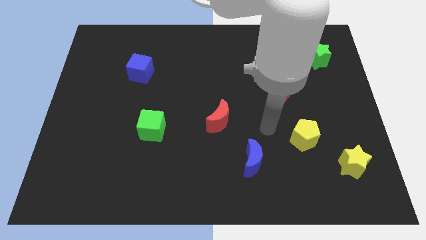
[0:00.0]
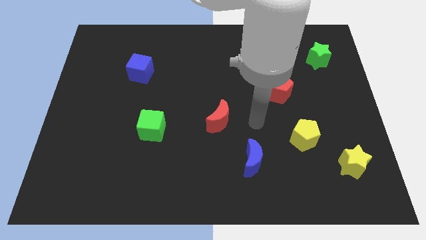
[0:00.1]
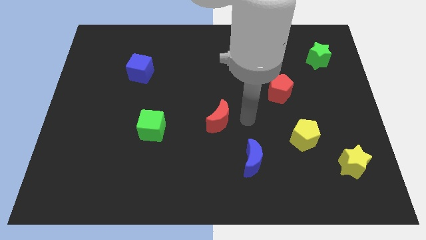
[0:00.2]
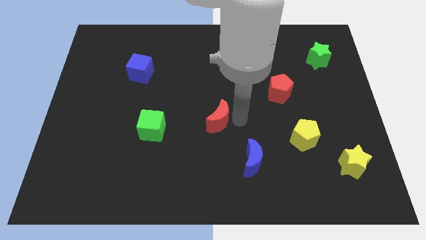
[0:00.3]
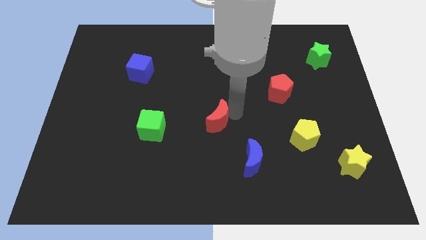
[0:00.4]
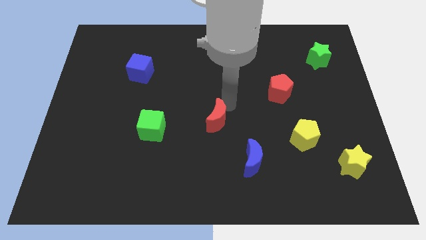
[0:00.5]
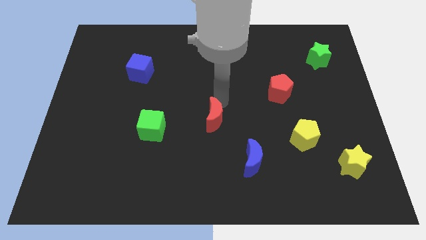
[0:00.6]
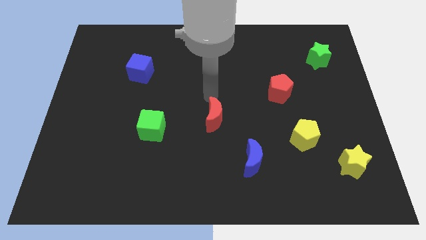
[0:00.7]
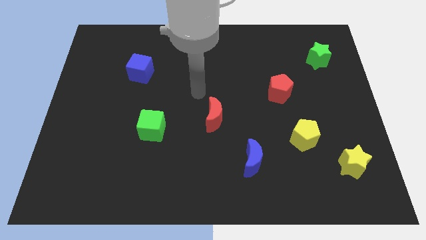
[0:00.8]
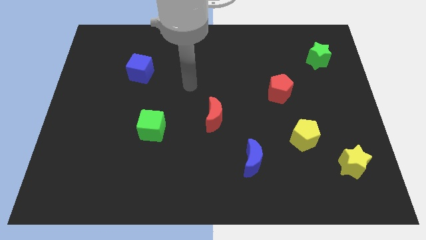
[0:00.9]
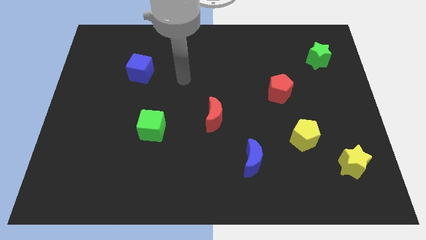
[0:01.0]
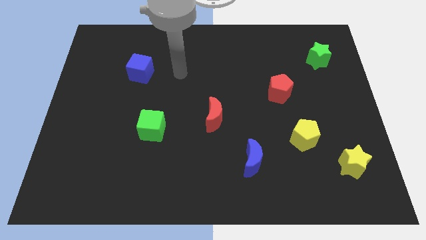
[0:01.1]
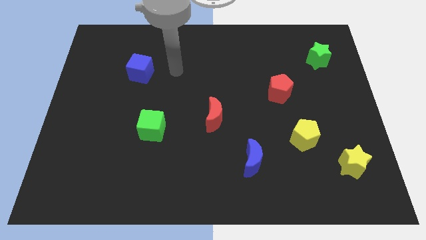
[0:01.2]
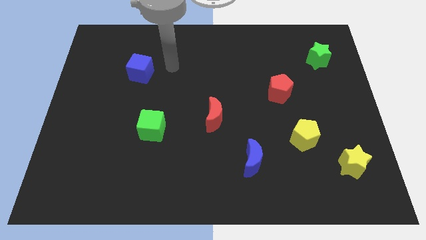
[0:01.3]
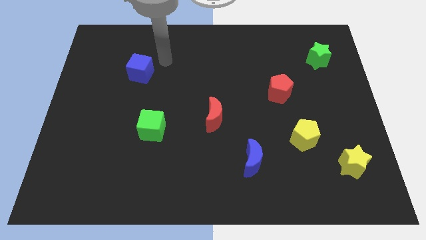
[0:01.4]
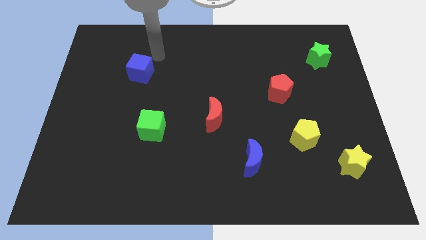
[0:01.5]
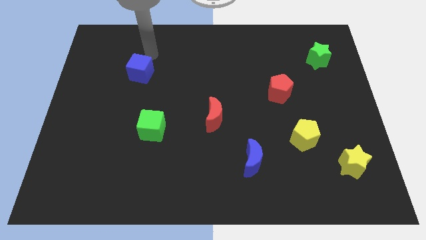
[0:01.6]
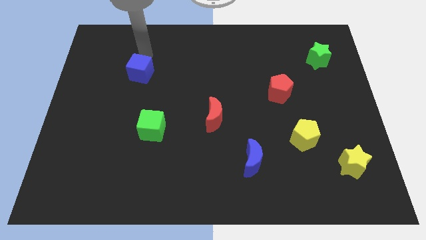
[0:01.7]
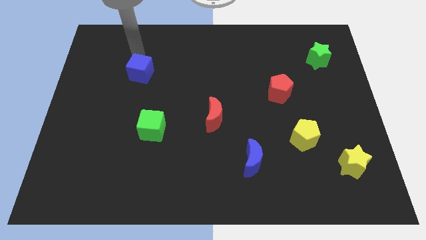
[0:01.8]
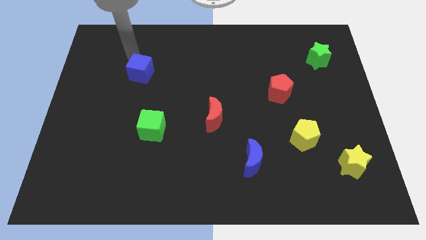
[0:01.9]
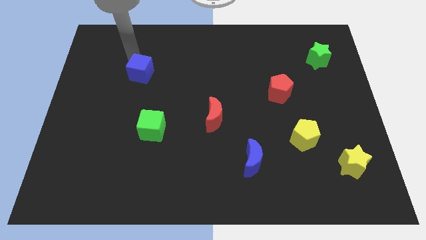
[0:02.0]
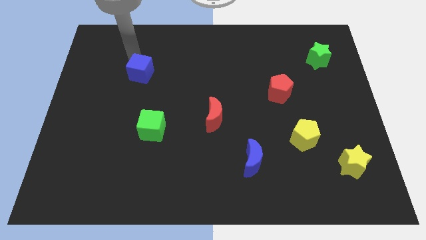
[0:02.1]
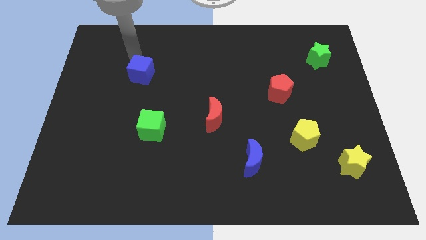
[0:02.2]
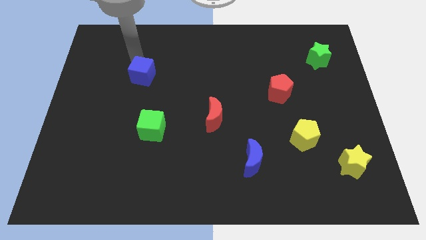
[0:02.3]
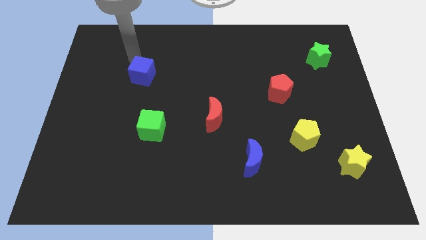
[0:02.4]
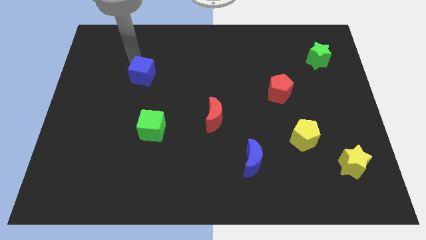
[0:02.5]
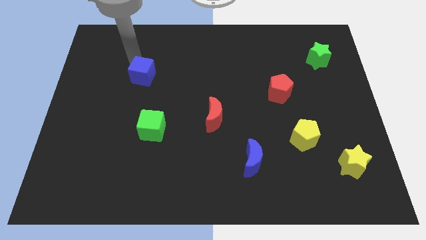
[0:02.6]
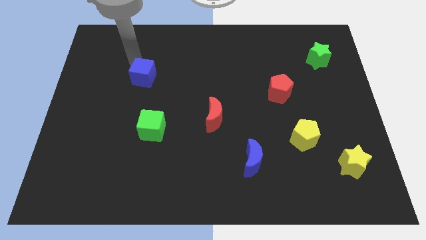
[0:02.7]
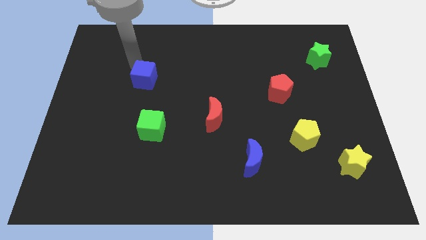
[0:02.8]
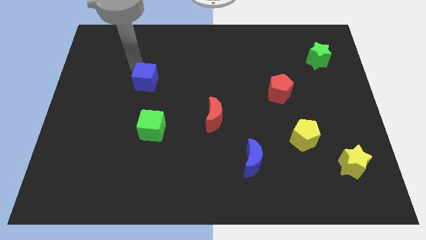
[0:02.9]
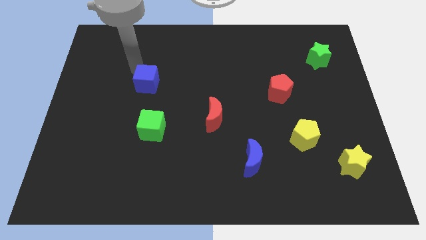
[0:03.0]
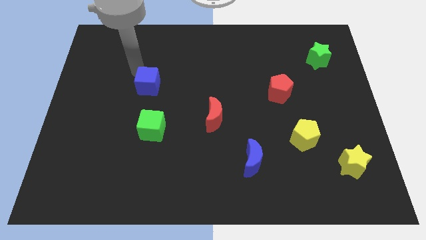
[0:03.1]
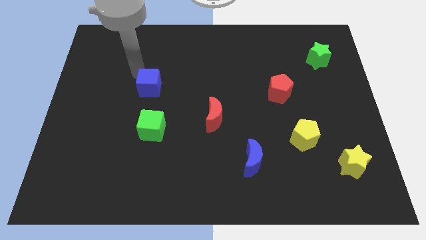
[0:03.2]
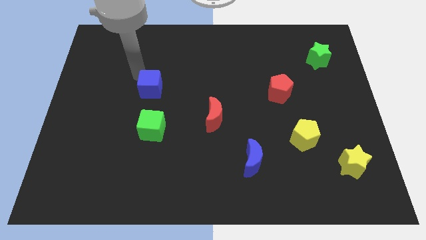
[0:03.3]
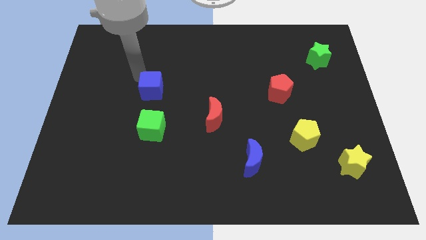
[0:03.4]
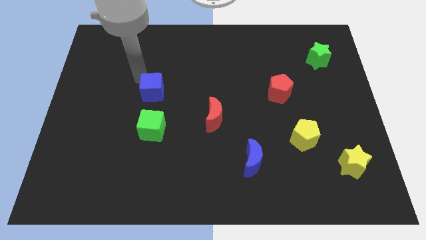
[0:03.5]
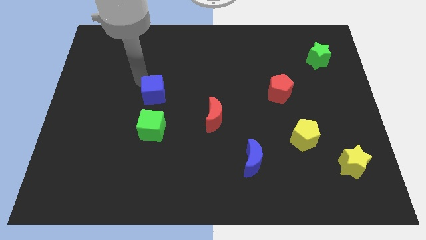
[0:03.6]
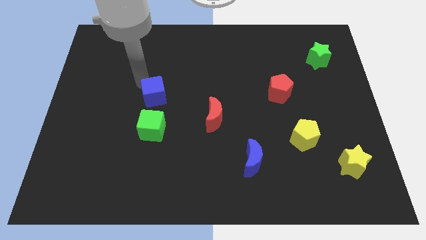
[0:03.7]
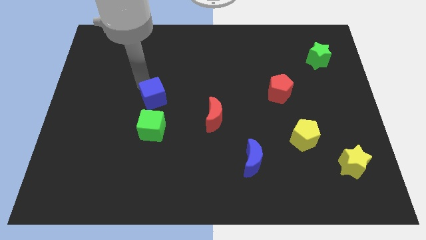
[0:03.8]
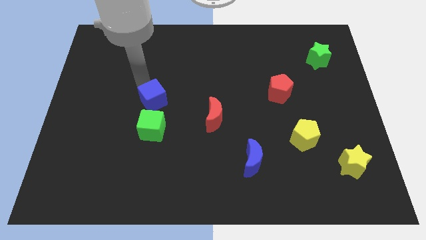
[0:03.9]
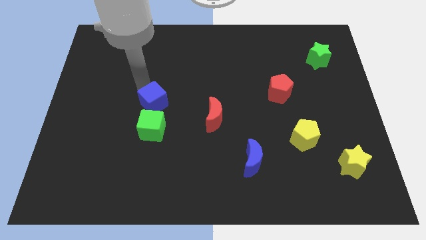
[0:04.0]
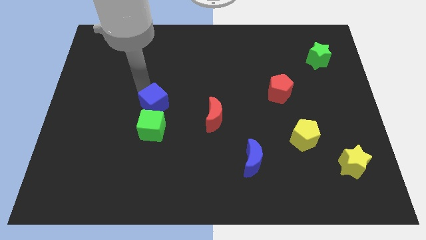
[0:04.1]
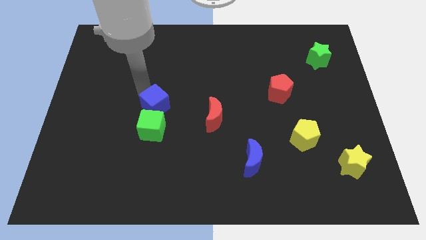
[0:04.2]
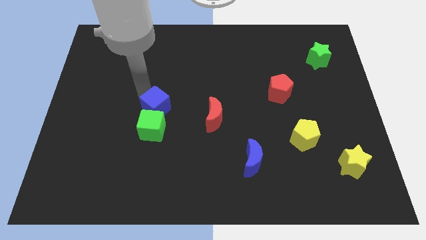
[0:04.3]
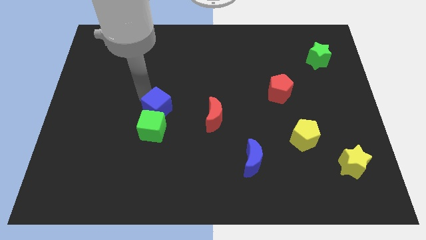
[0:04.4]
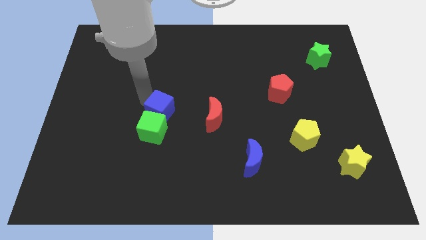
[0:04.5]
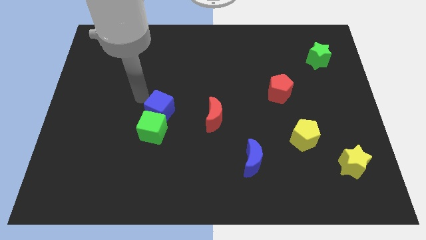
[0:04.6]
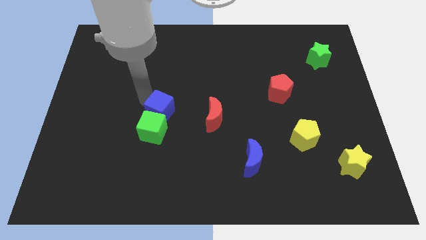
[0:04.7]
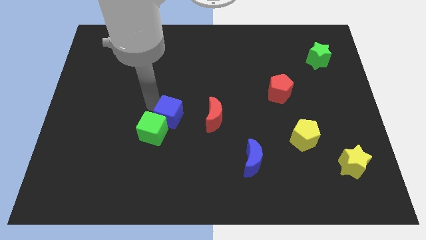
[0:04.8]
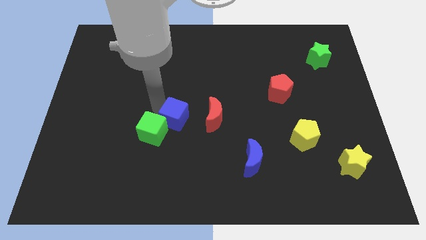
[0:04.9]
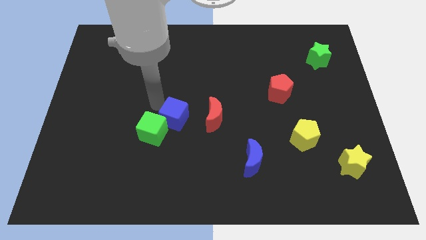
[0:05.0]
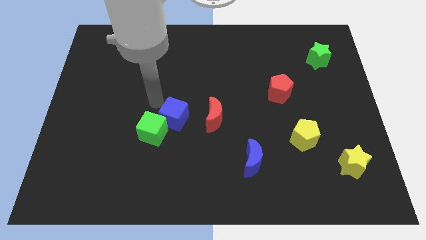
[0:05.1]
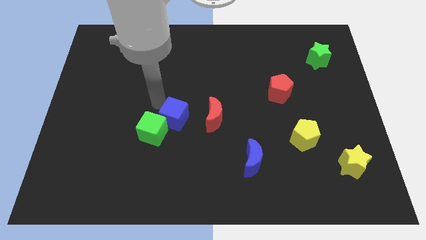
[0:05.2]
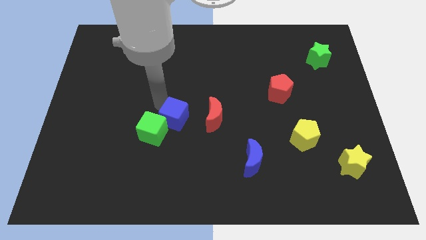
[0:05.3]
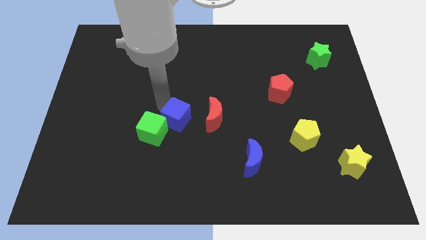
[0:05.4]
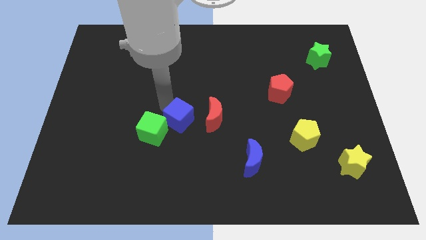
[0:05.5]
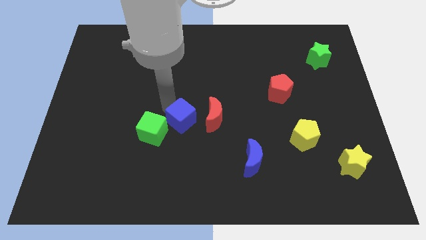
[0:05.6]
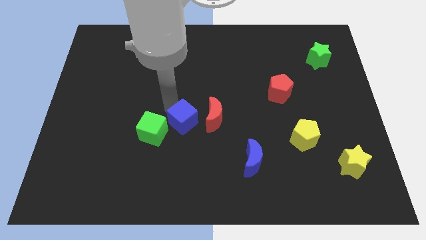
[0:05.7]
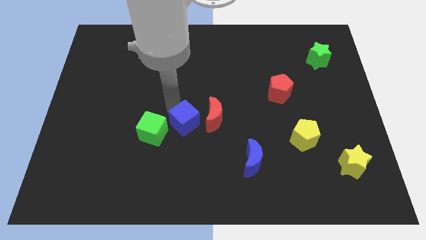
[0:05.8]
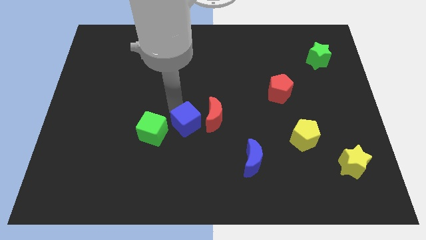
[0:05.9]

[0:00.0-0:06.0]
move the blue cube downwards and right

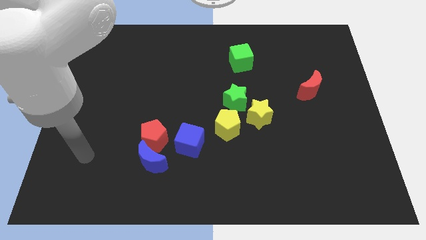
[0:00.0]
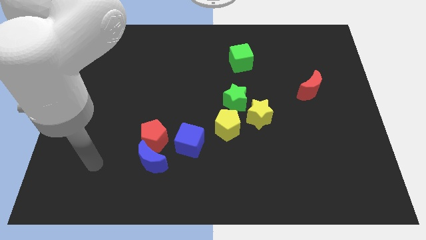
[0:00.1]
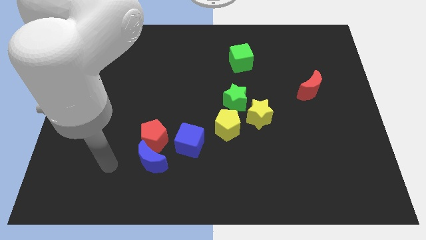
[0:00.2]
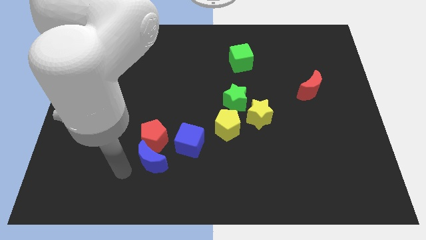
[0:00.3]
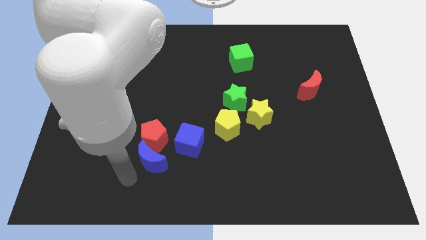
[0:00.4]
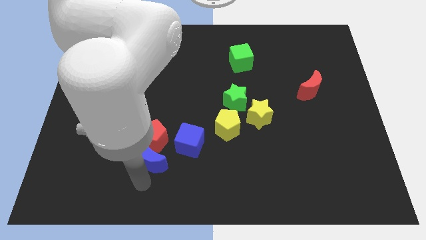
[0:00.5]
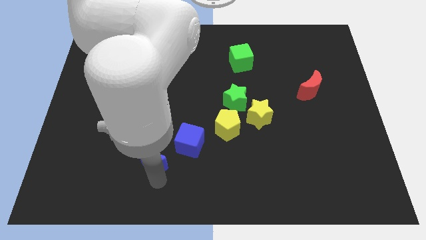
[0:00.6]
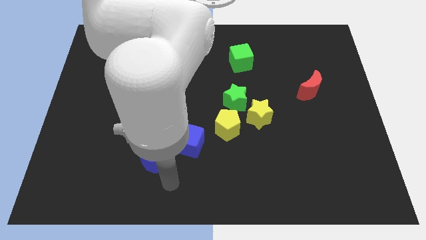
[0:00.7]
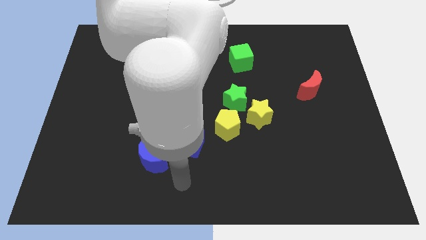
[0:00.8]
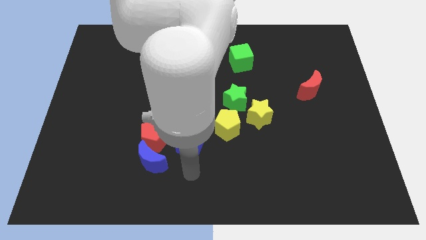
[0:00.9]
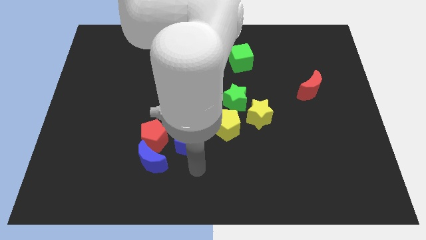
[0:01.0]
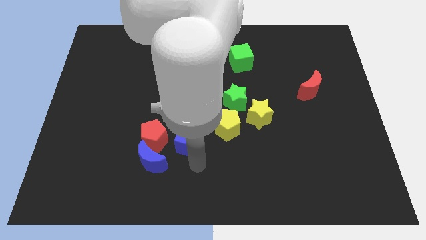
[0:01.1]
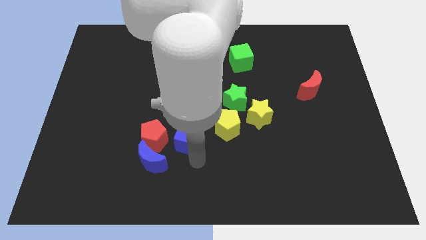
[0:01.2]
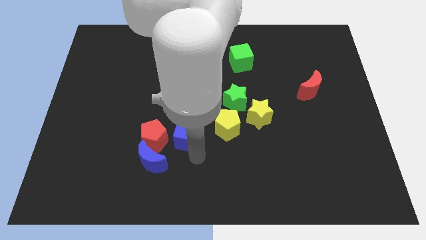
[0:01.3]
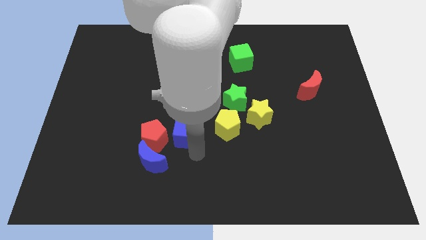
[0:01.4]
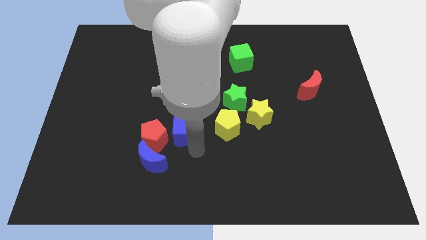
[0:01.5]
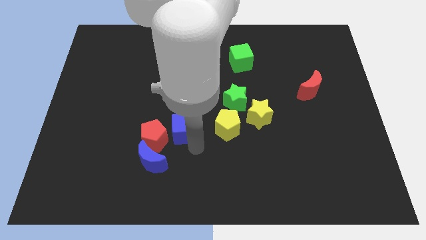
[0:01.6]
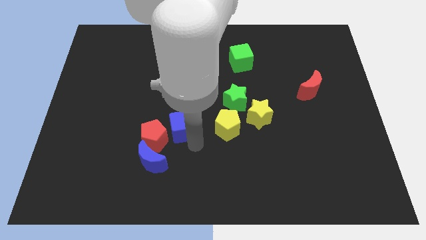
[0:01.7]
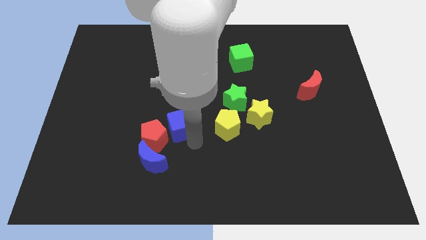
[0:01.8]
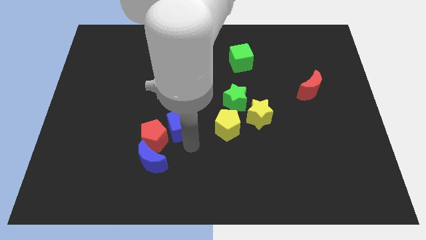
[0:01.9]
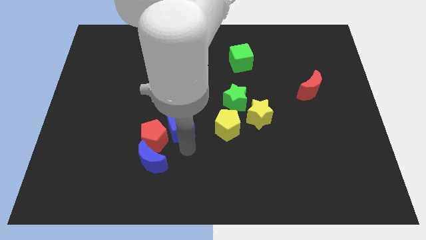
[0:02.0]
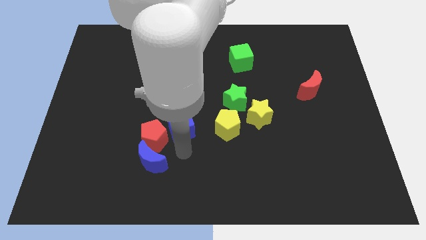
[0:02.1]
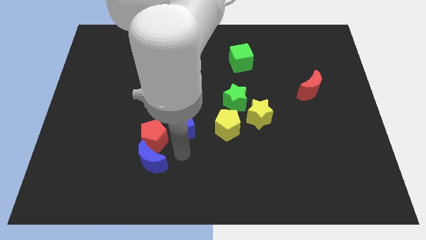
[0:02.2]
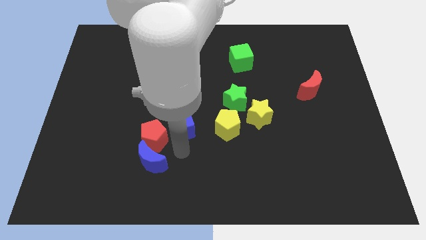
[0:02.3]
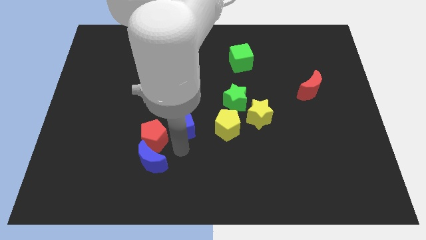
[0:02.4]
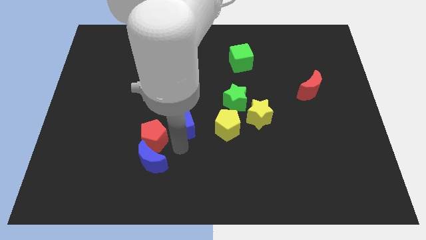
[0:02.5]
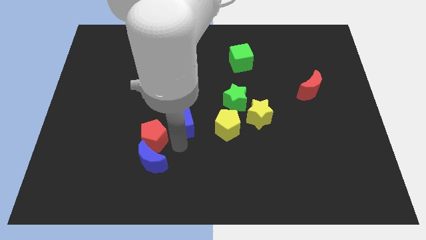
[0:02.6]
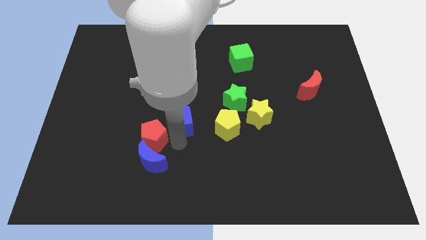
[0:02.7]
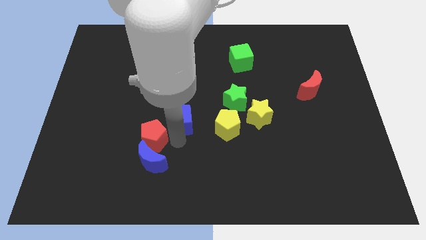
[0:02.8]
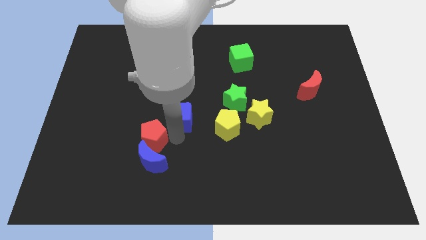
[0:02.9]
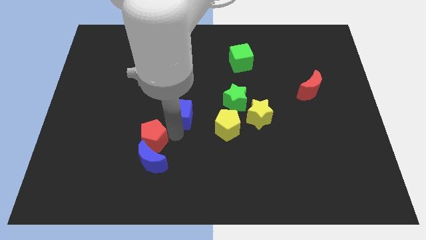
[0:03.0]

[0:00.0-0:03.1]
slightly slide the blue cube upwards
